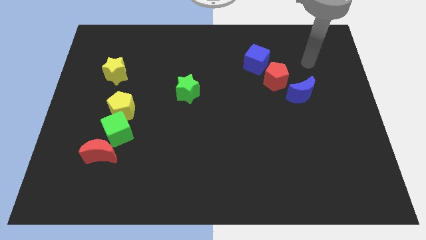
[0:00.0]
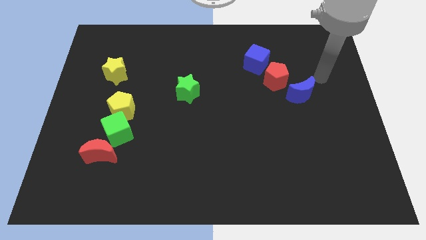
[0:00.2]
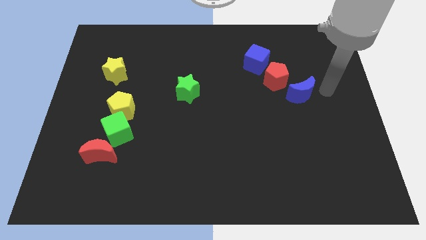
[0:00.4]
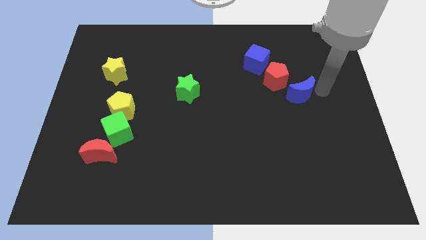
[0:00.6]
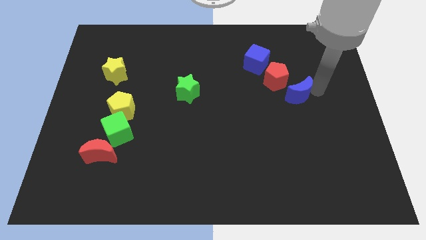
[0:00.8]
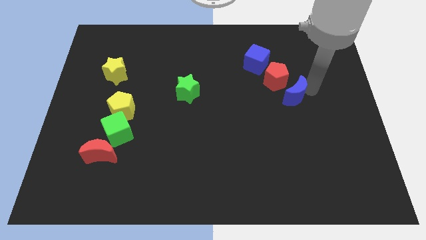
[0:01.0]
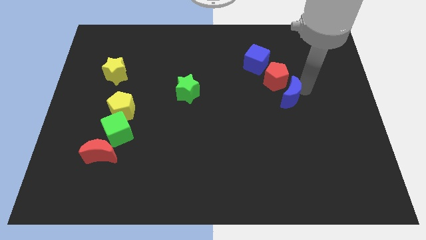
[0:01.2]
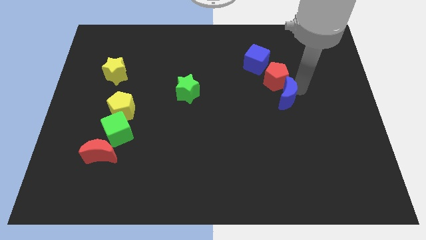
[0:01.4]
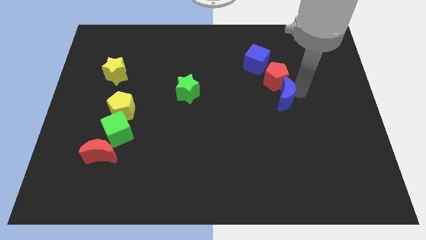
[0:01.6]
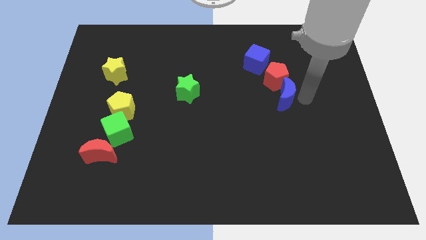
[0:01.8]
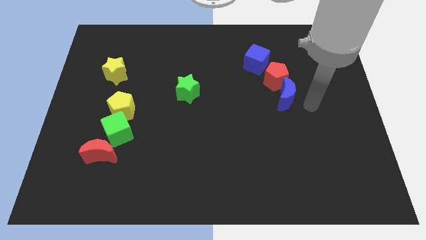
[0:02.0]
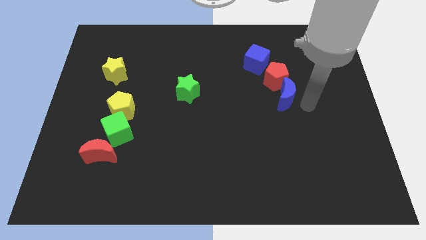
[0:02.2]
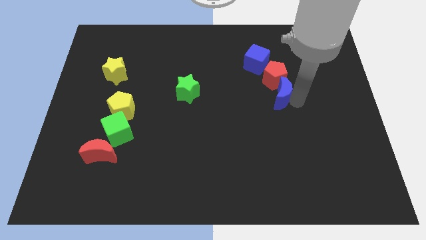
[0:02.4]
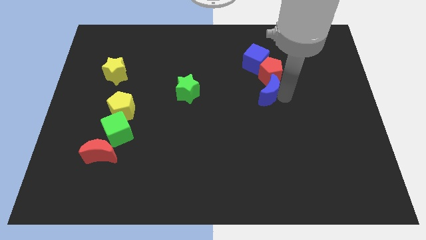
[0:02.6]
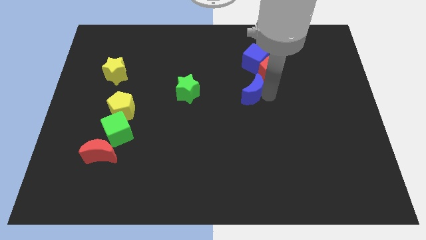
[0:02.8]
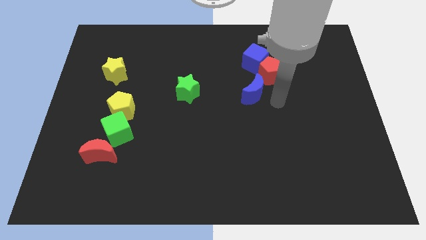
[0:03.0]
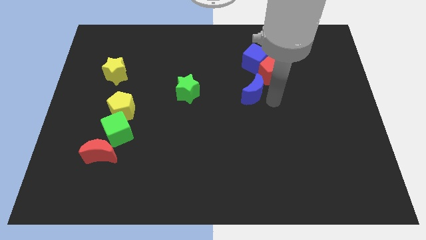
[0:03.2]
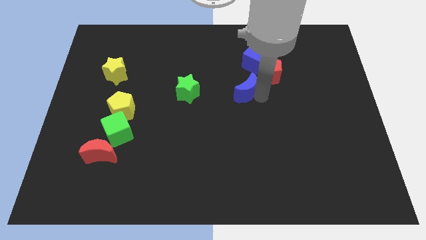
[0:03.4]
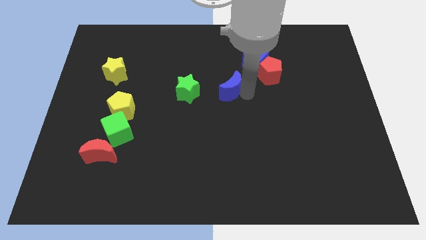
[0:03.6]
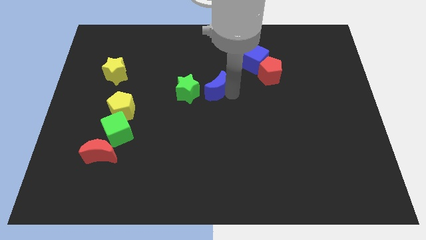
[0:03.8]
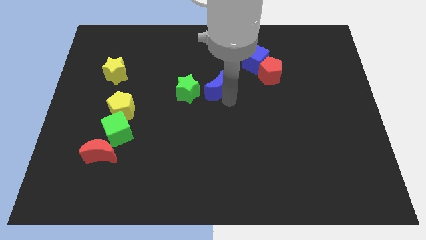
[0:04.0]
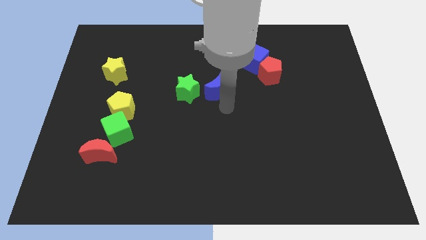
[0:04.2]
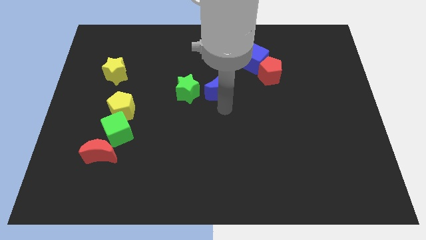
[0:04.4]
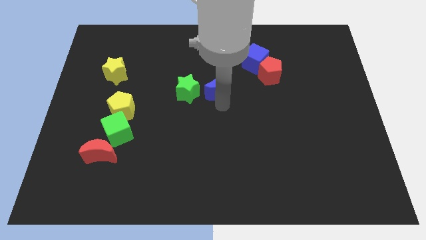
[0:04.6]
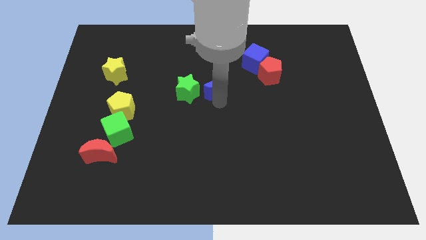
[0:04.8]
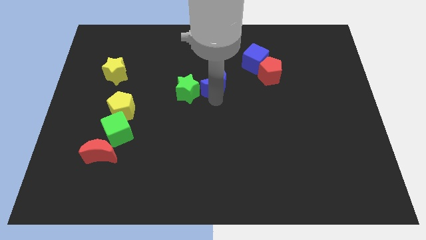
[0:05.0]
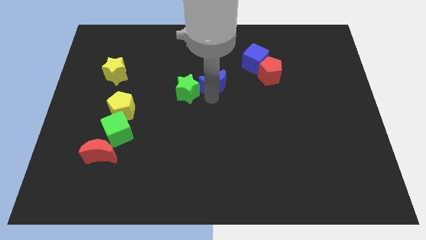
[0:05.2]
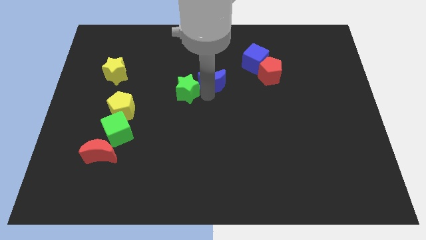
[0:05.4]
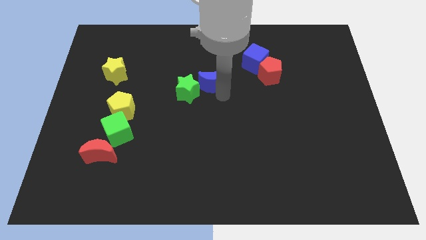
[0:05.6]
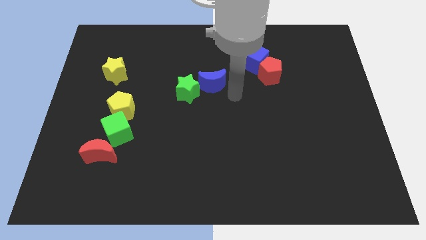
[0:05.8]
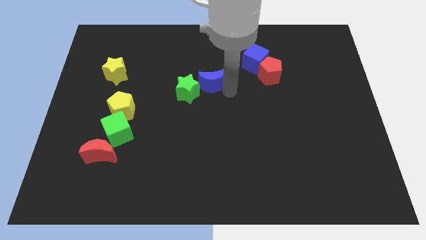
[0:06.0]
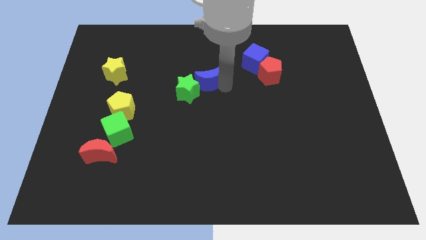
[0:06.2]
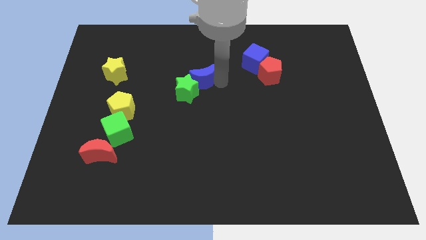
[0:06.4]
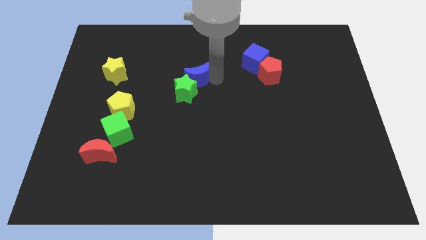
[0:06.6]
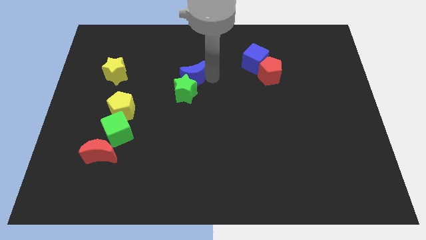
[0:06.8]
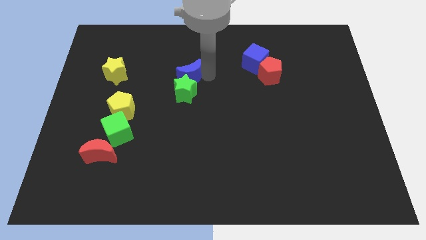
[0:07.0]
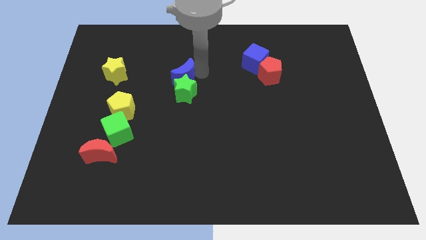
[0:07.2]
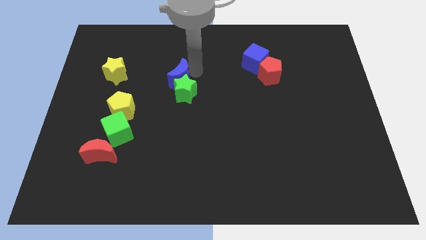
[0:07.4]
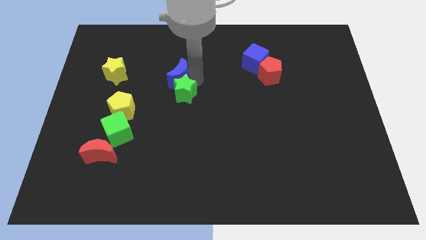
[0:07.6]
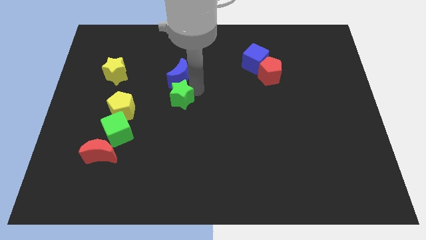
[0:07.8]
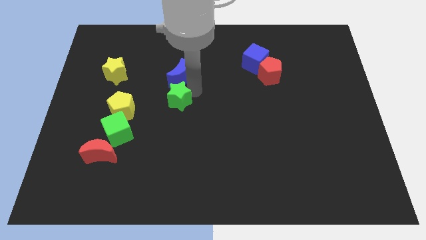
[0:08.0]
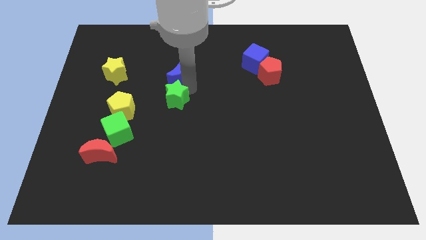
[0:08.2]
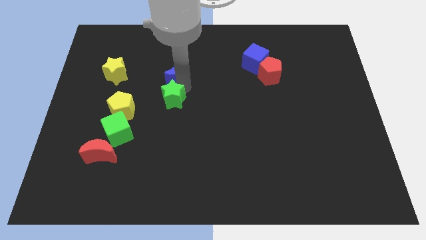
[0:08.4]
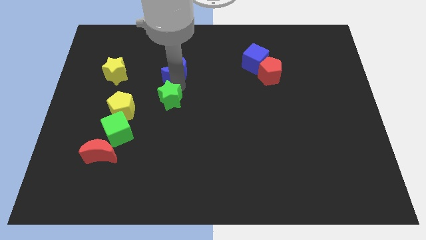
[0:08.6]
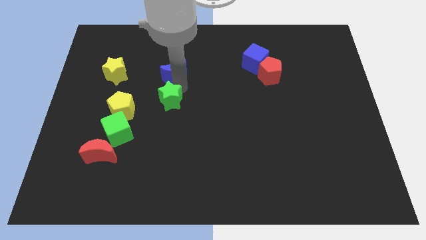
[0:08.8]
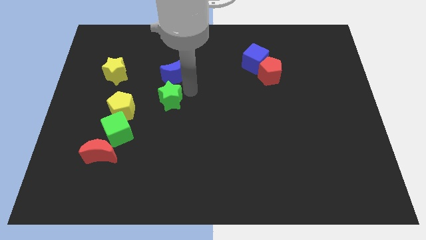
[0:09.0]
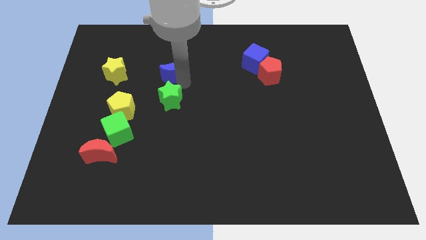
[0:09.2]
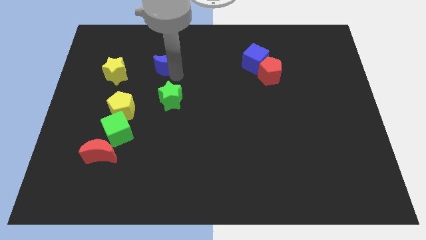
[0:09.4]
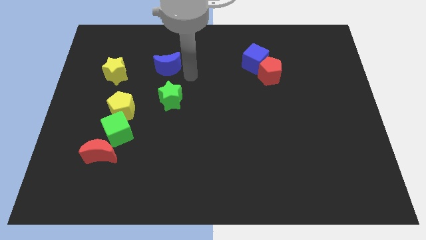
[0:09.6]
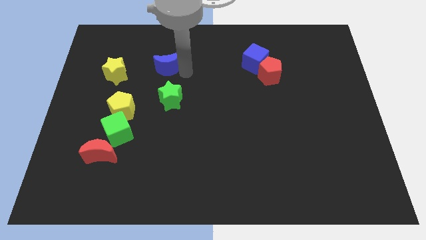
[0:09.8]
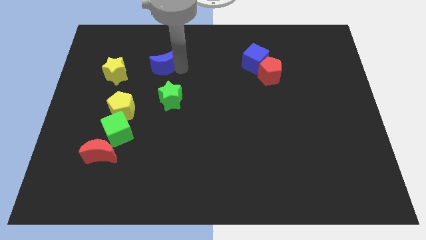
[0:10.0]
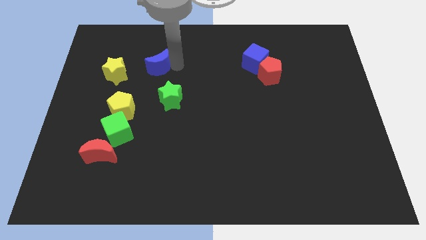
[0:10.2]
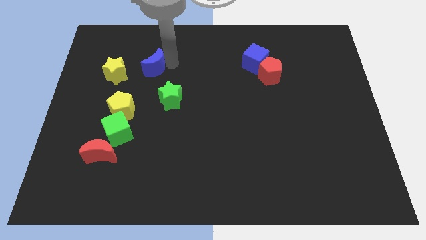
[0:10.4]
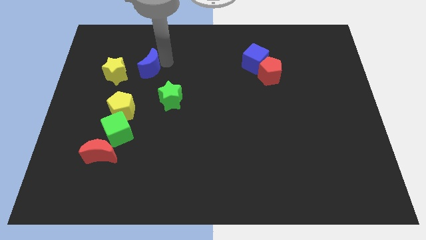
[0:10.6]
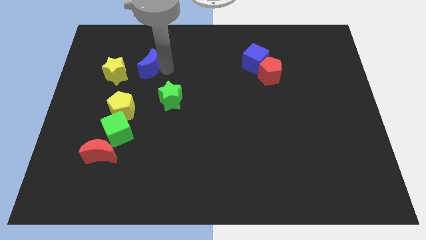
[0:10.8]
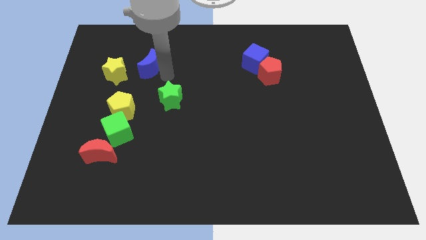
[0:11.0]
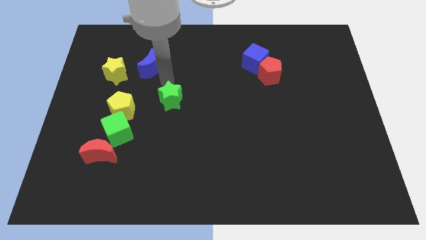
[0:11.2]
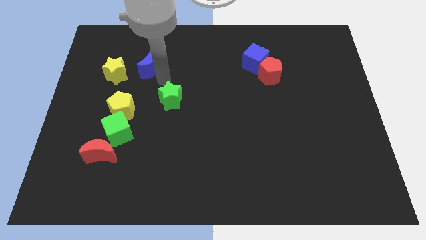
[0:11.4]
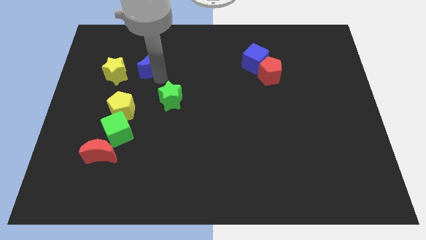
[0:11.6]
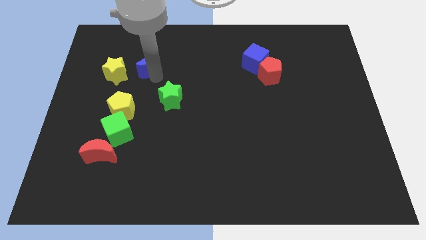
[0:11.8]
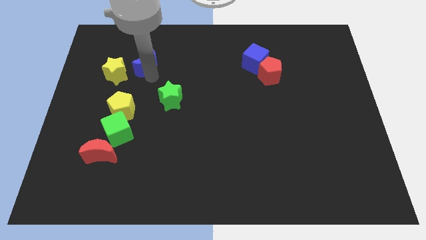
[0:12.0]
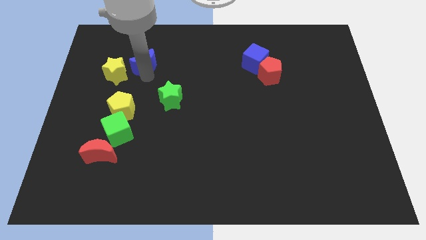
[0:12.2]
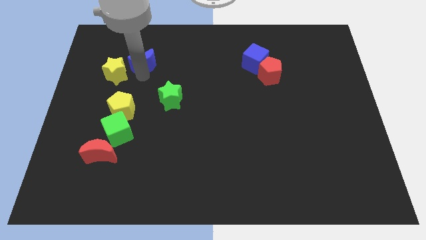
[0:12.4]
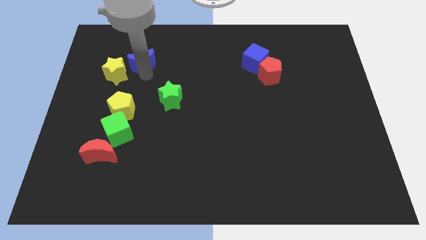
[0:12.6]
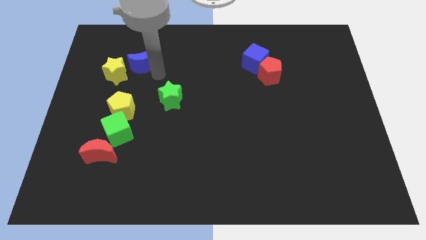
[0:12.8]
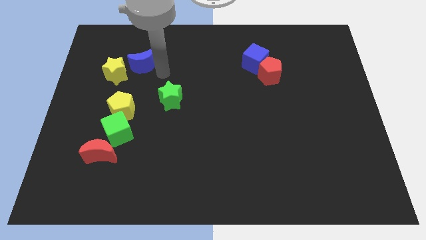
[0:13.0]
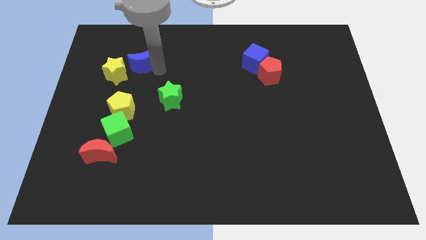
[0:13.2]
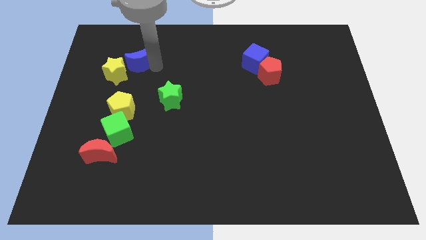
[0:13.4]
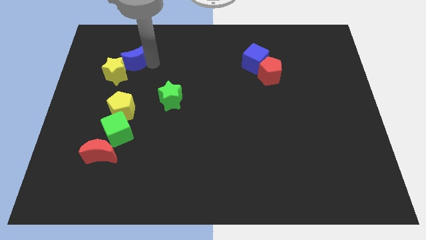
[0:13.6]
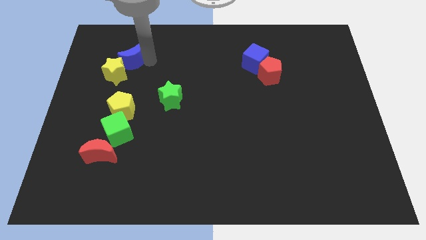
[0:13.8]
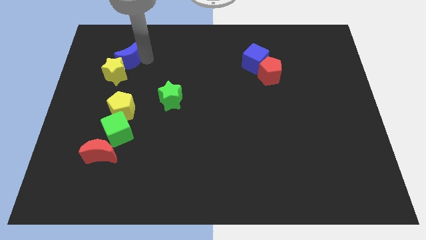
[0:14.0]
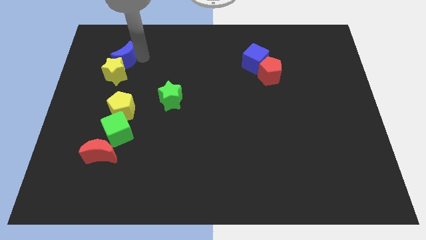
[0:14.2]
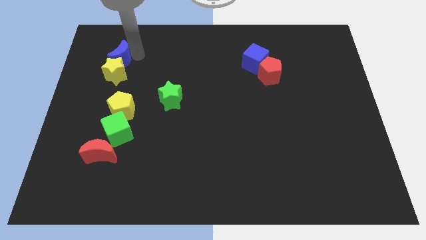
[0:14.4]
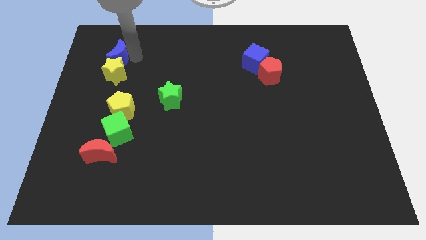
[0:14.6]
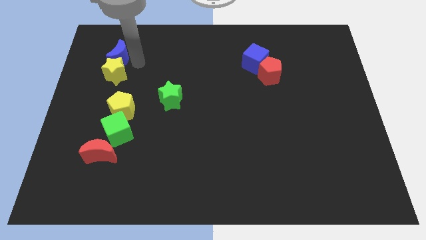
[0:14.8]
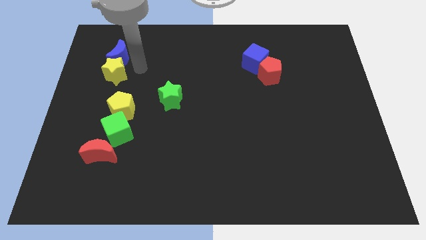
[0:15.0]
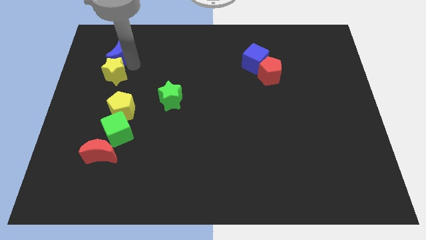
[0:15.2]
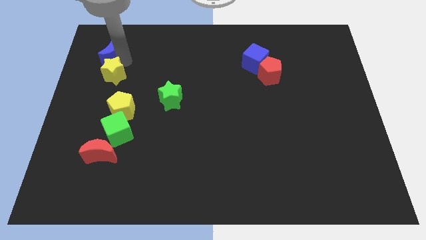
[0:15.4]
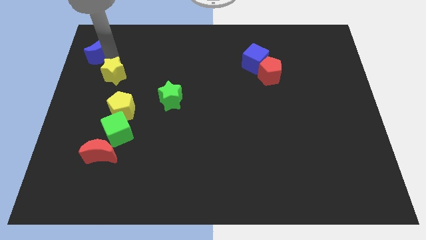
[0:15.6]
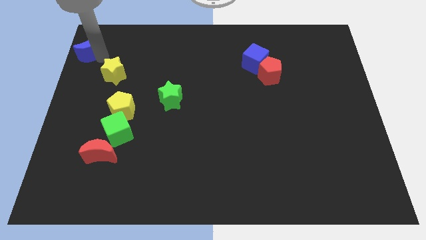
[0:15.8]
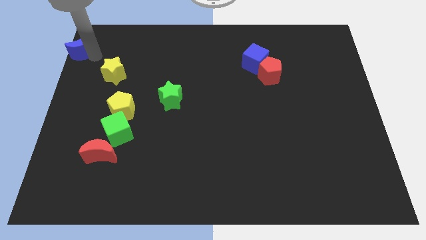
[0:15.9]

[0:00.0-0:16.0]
put the blue moon to the upper left corner
